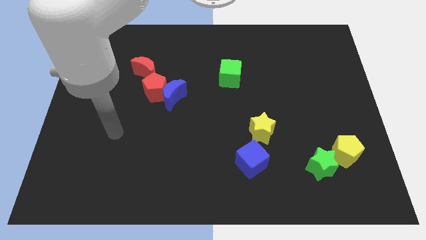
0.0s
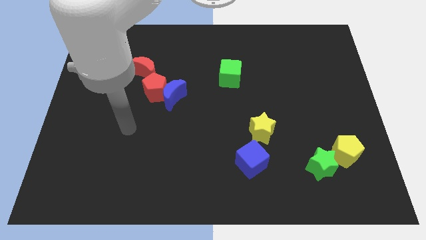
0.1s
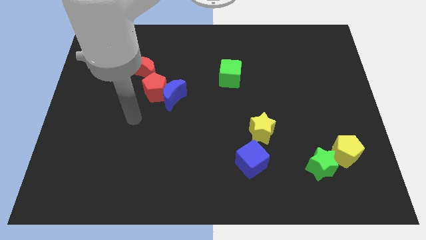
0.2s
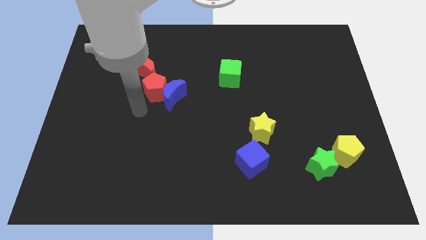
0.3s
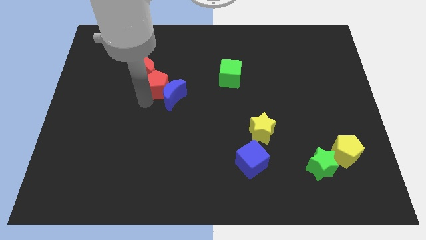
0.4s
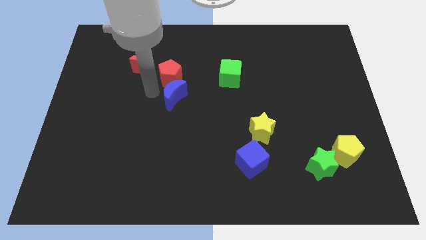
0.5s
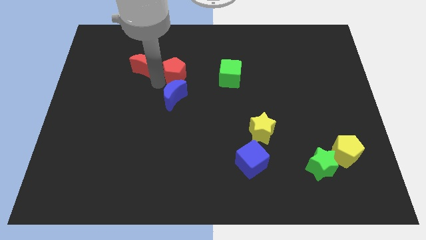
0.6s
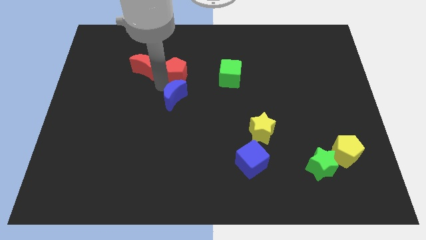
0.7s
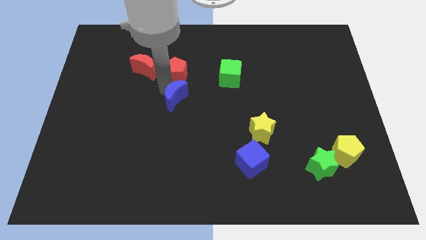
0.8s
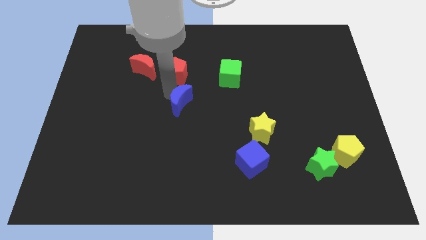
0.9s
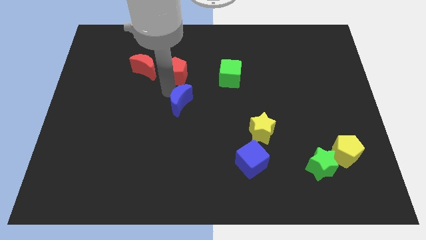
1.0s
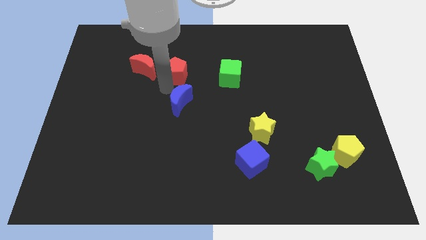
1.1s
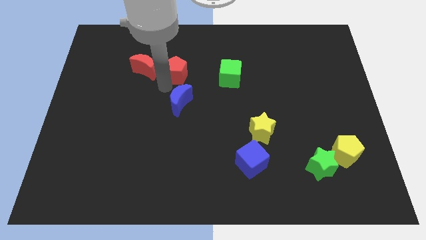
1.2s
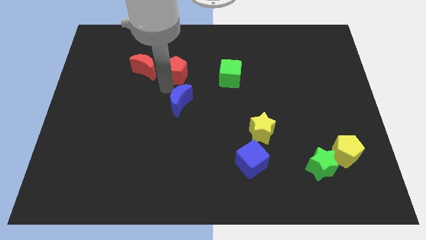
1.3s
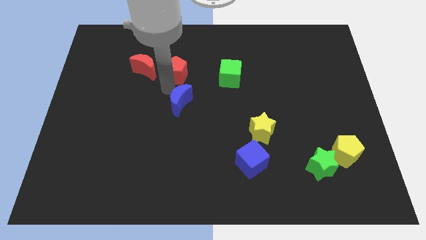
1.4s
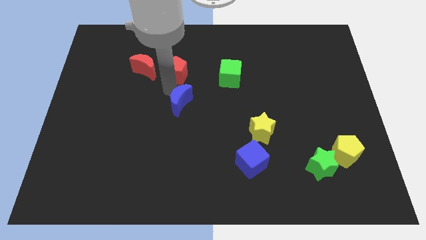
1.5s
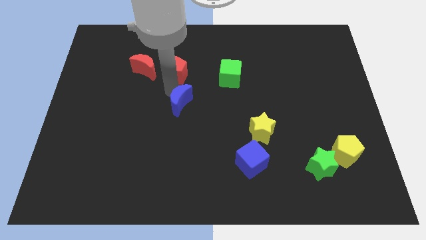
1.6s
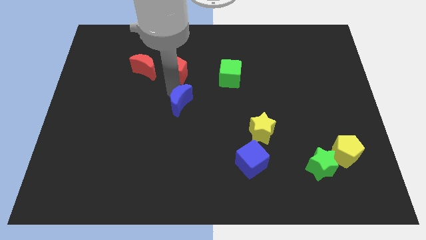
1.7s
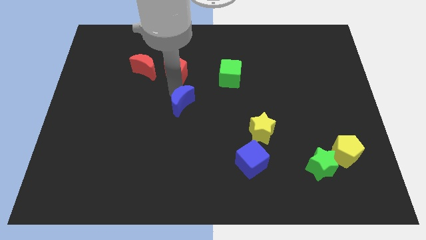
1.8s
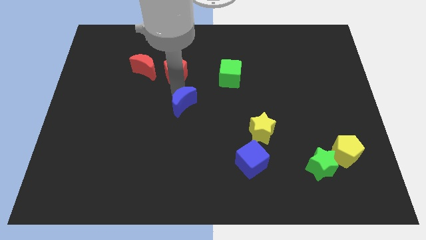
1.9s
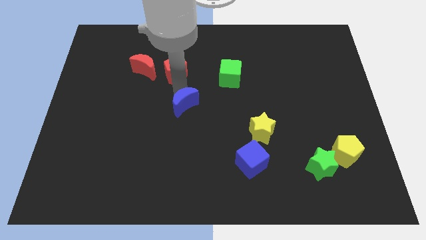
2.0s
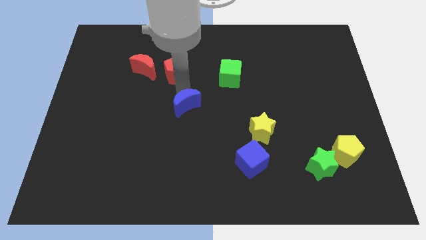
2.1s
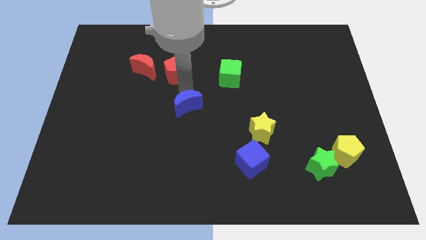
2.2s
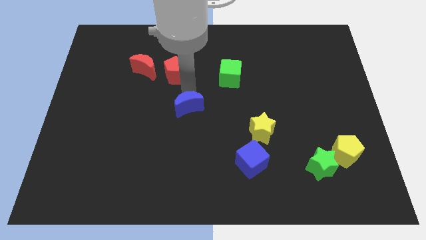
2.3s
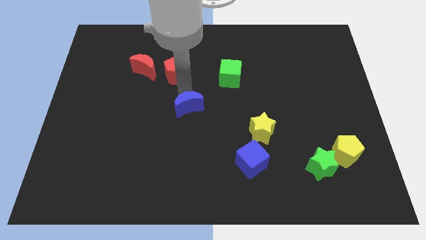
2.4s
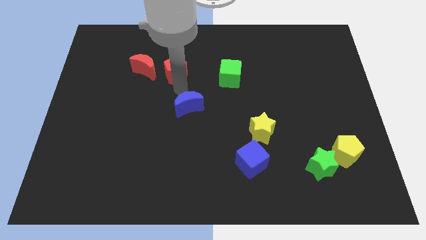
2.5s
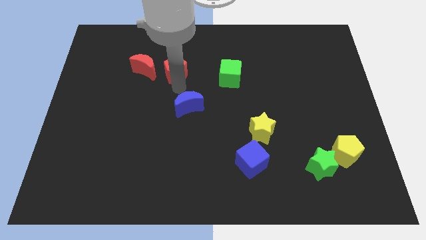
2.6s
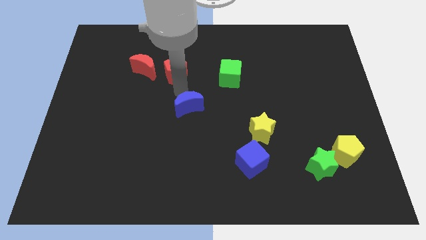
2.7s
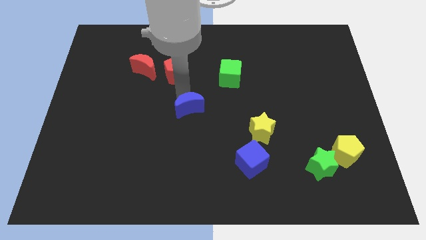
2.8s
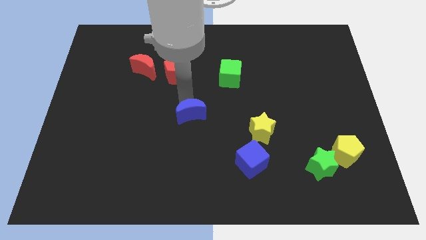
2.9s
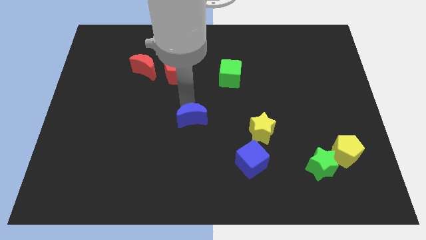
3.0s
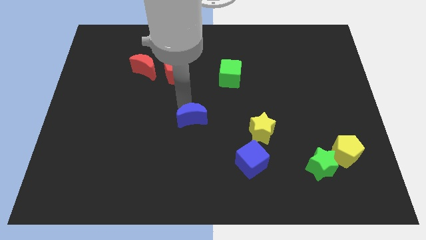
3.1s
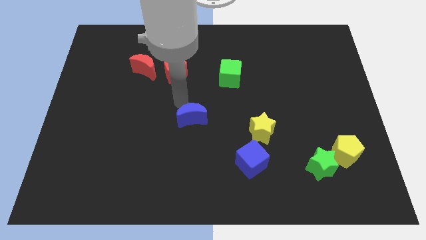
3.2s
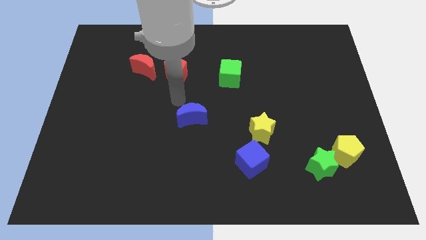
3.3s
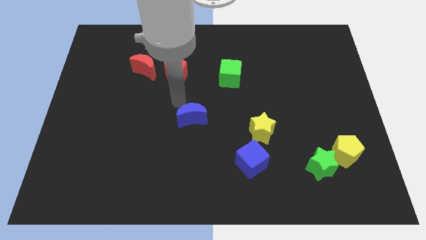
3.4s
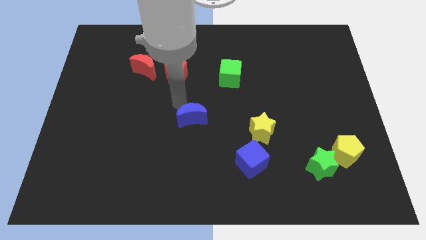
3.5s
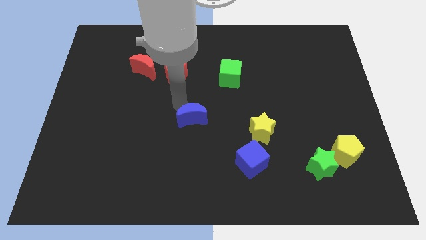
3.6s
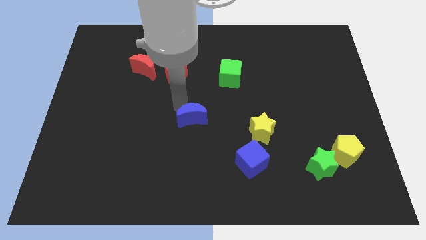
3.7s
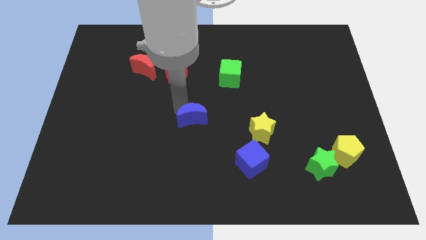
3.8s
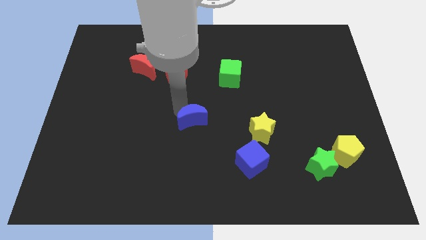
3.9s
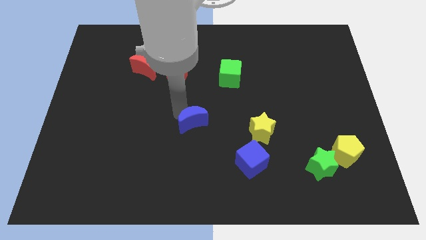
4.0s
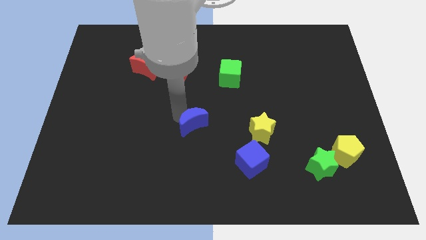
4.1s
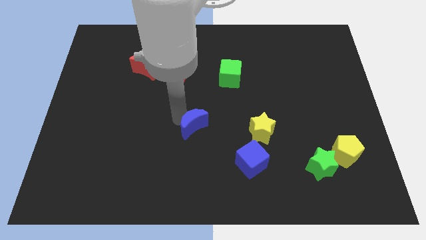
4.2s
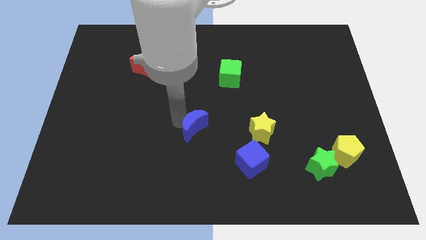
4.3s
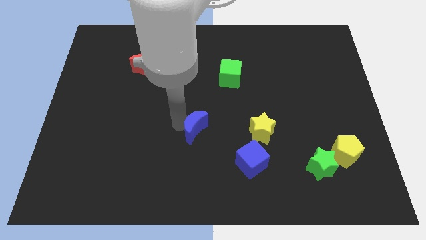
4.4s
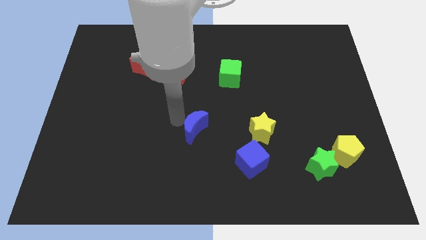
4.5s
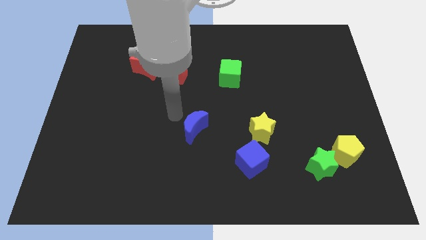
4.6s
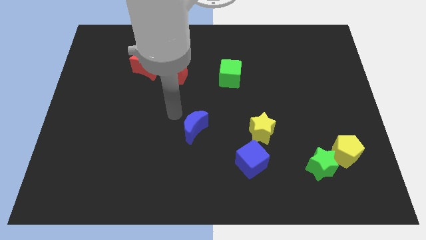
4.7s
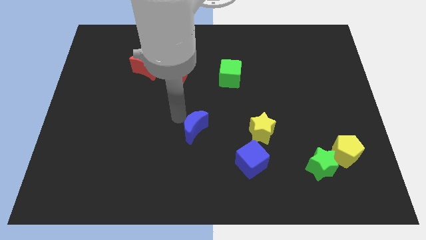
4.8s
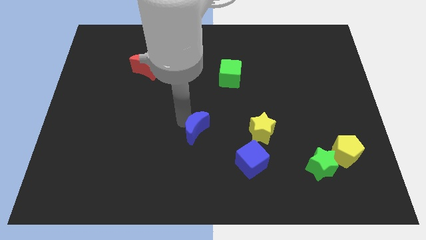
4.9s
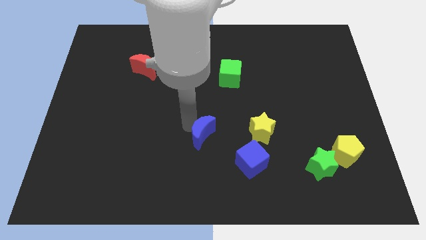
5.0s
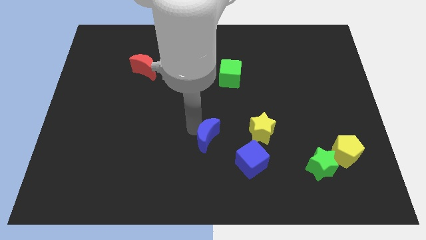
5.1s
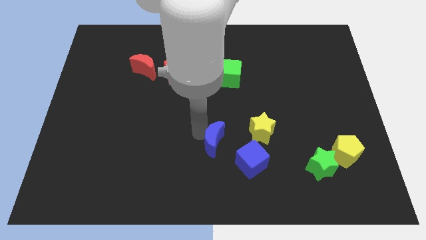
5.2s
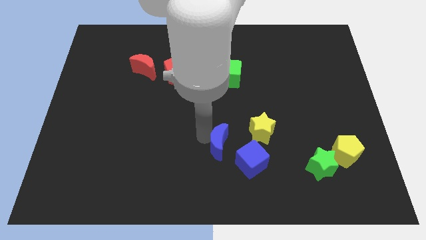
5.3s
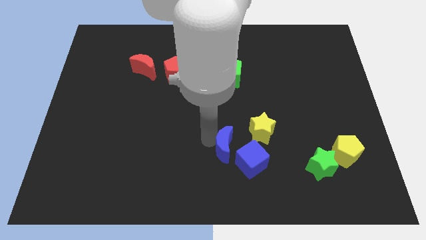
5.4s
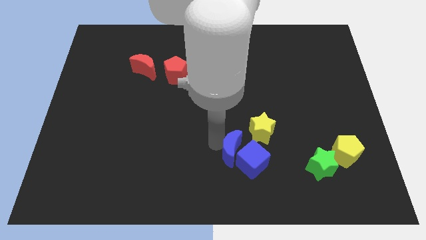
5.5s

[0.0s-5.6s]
put the blue moon to the blue cube

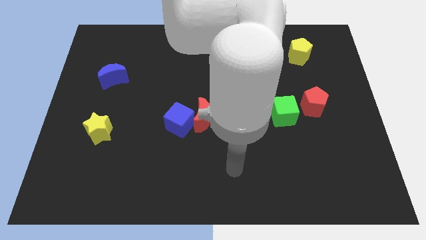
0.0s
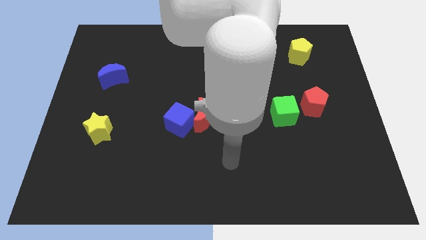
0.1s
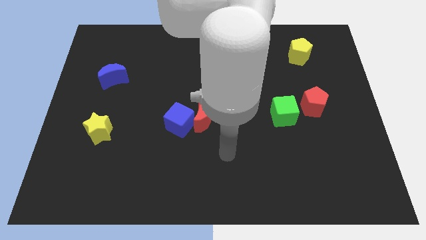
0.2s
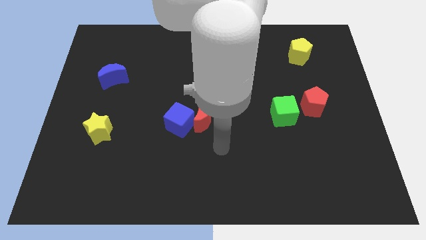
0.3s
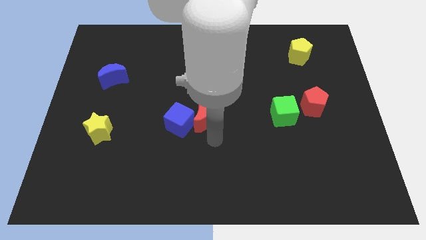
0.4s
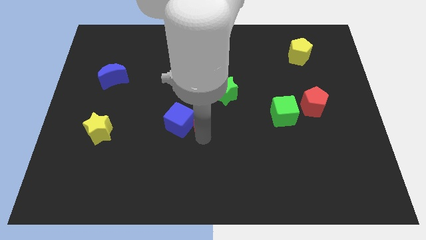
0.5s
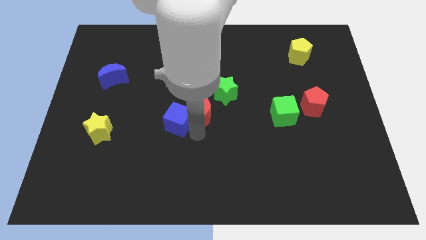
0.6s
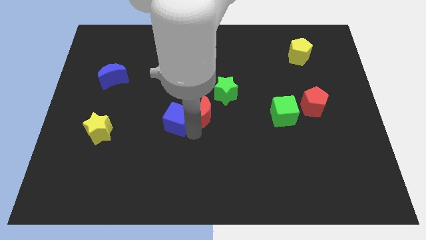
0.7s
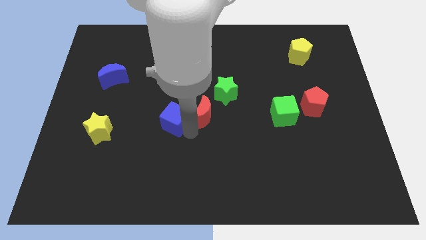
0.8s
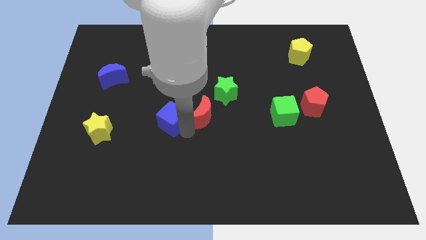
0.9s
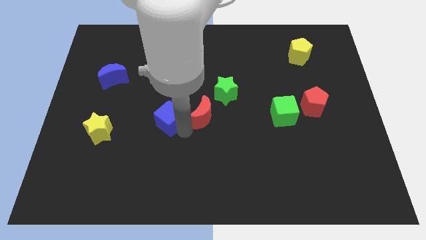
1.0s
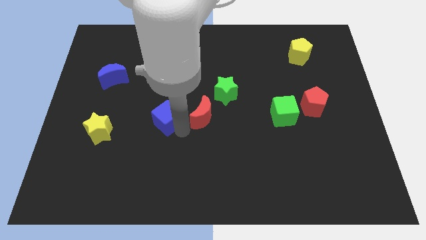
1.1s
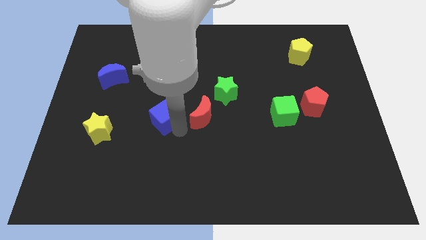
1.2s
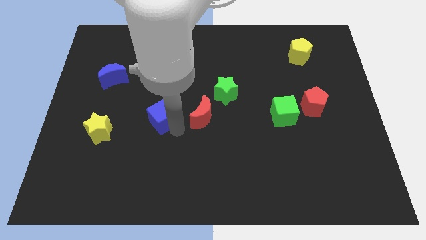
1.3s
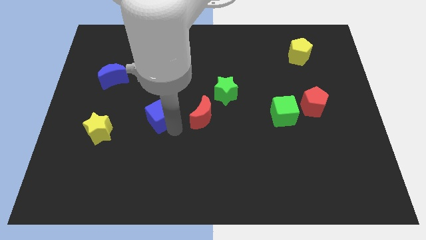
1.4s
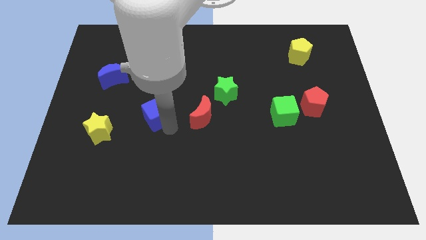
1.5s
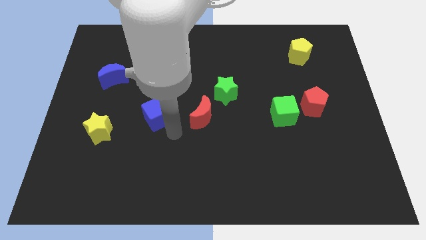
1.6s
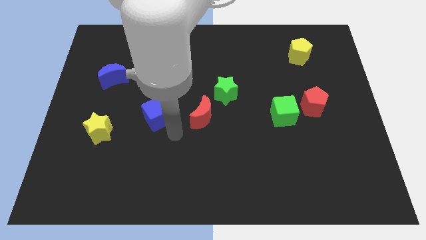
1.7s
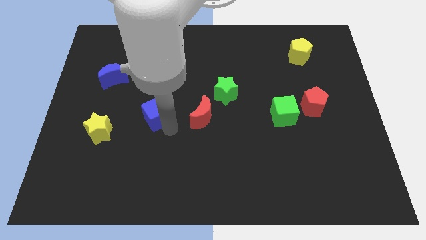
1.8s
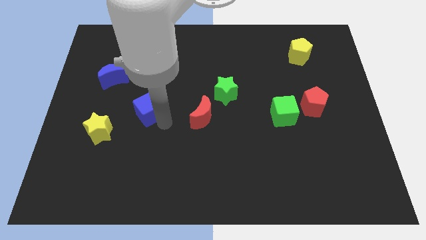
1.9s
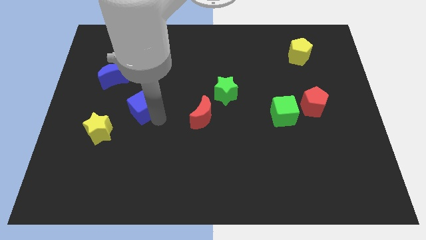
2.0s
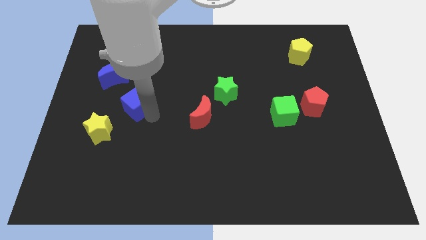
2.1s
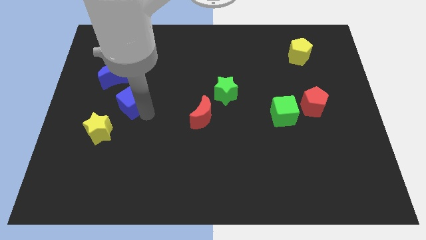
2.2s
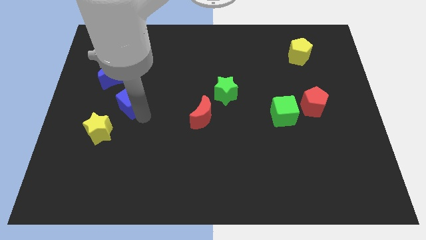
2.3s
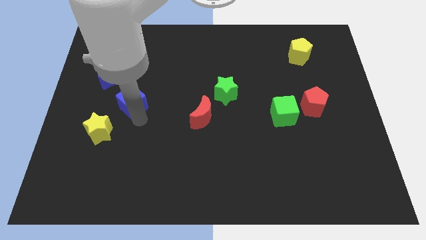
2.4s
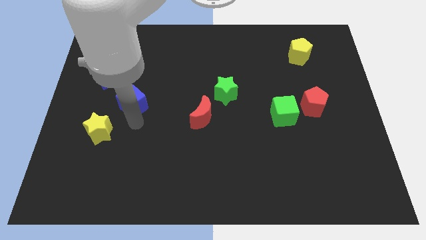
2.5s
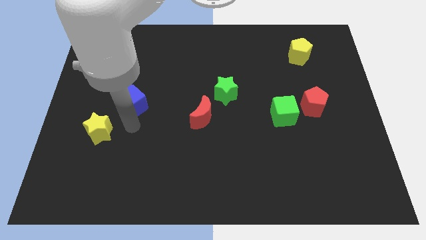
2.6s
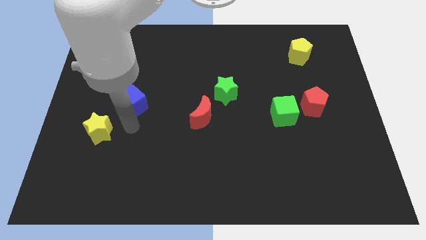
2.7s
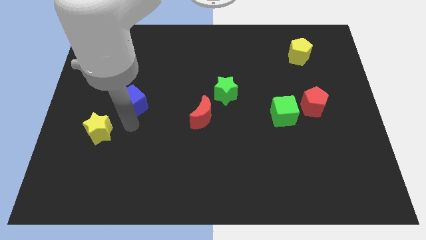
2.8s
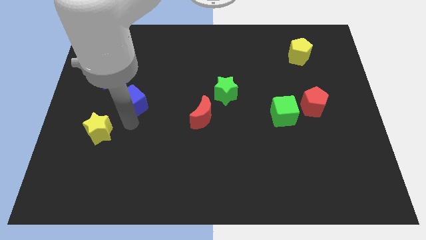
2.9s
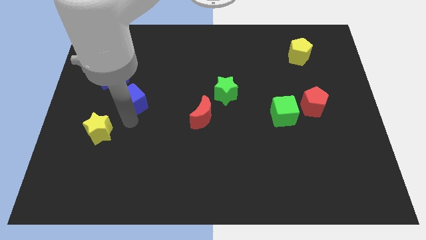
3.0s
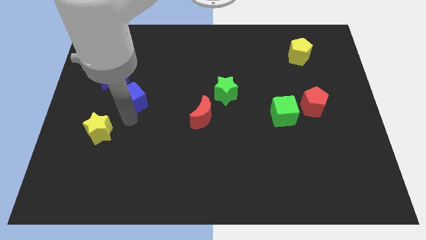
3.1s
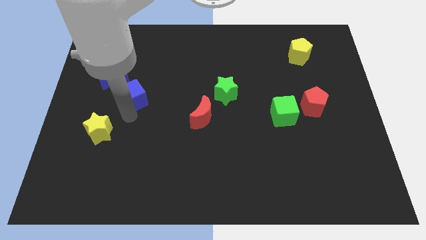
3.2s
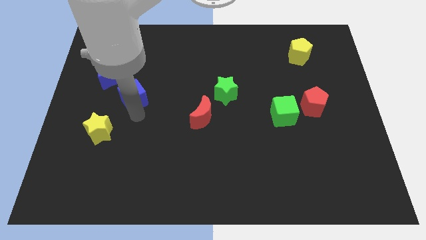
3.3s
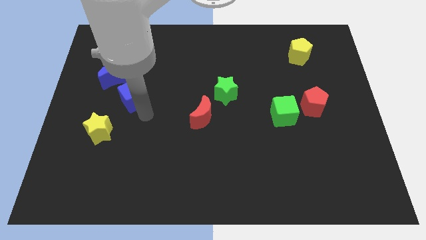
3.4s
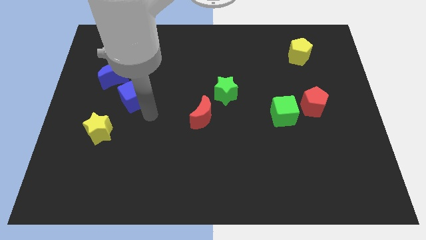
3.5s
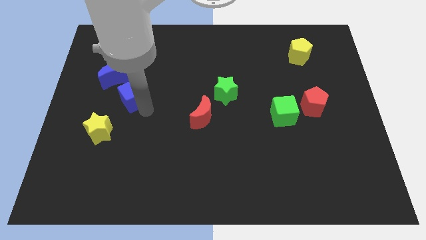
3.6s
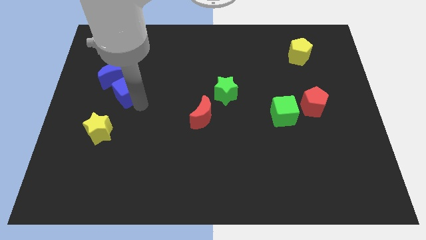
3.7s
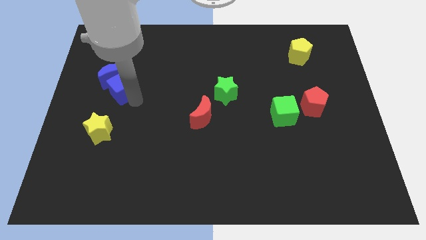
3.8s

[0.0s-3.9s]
put the blue cube towards the blue moon
